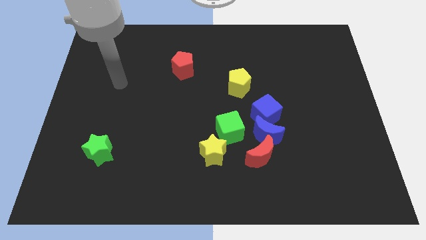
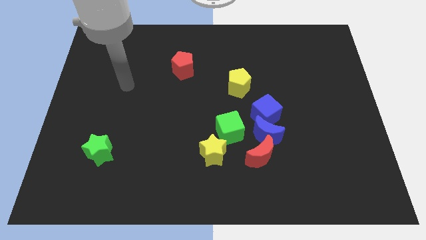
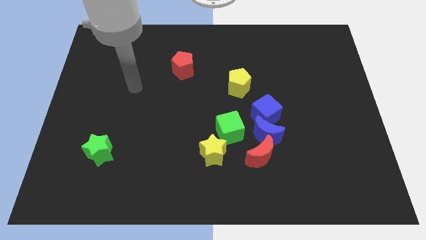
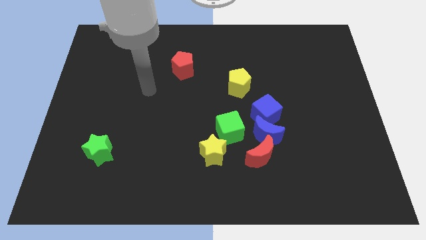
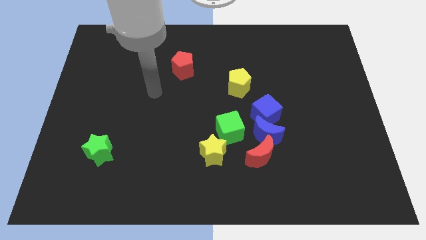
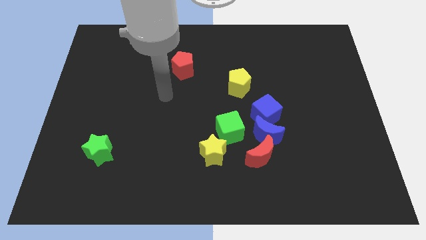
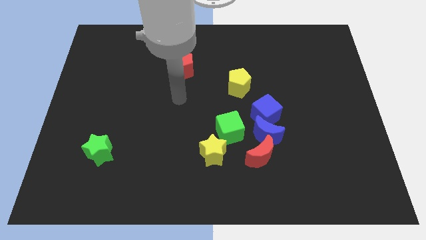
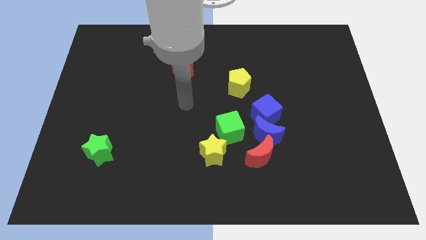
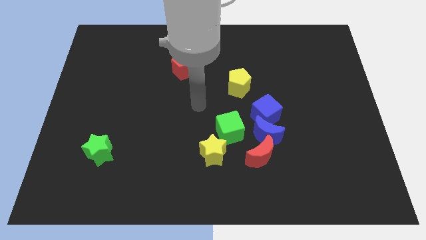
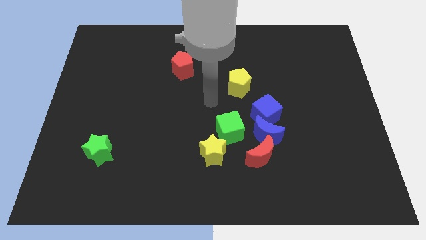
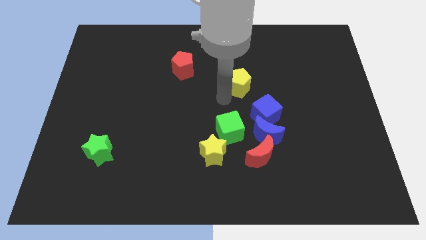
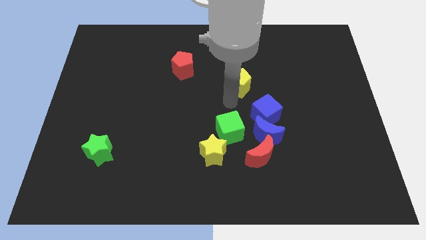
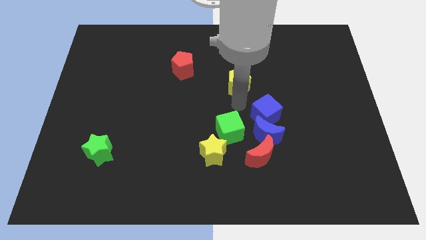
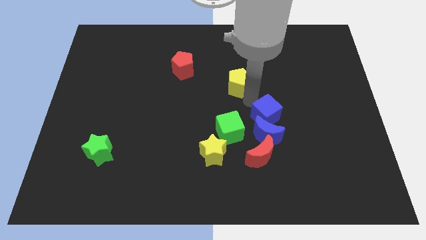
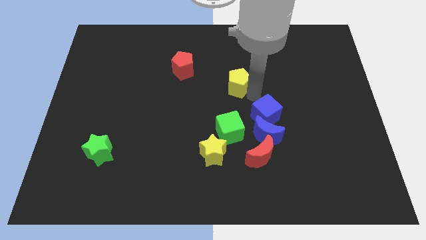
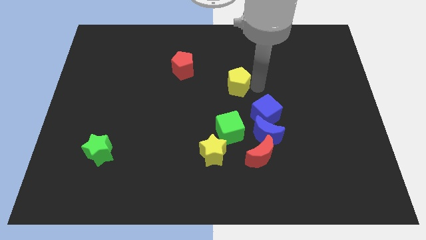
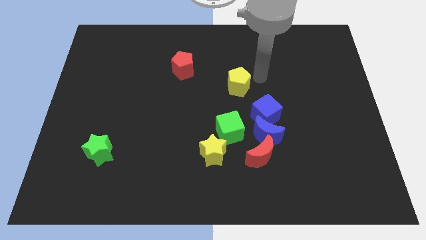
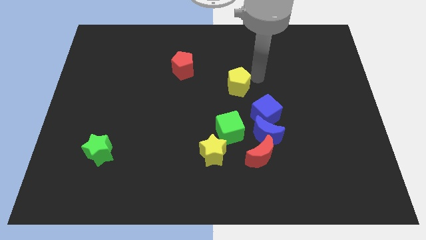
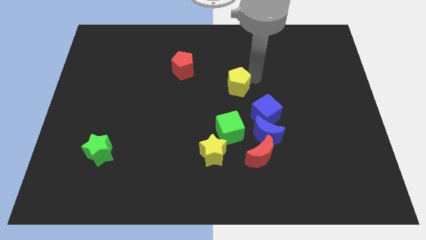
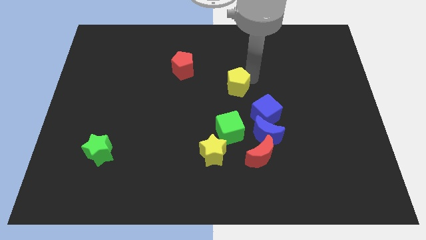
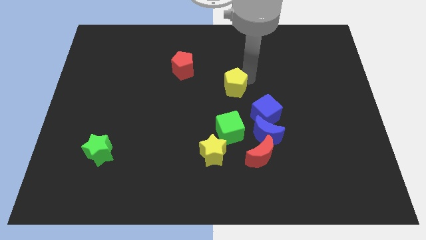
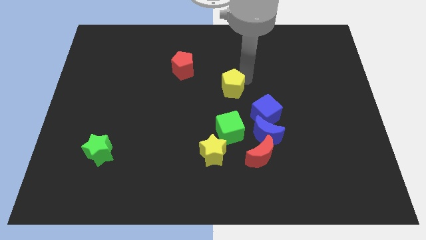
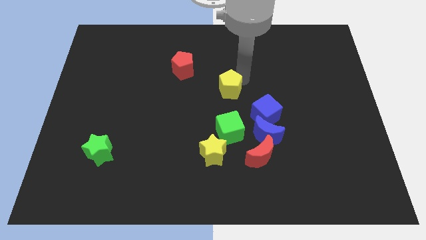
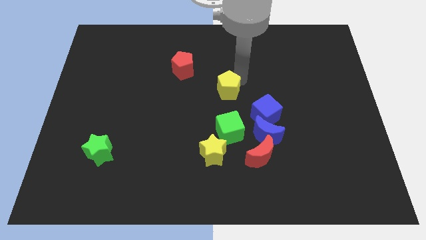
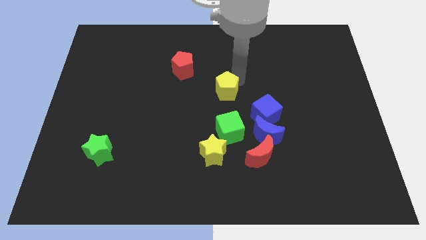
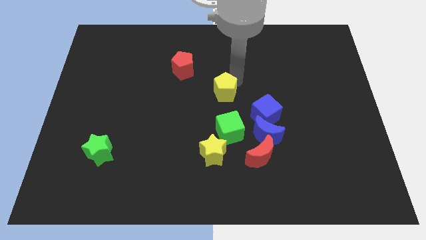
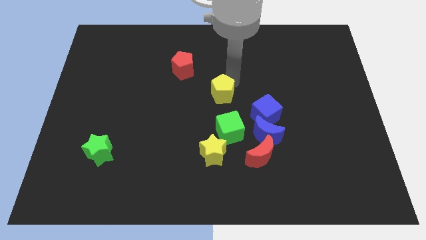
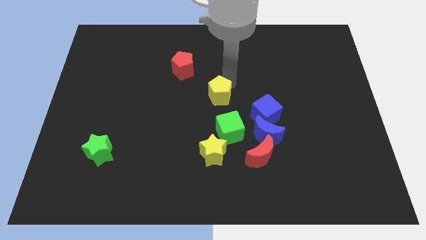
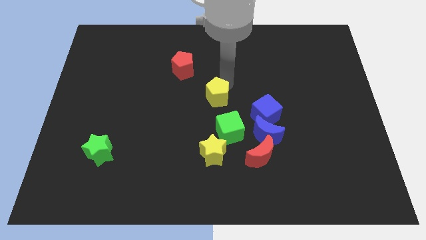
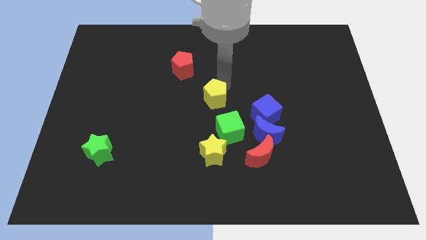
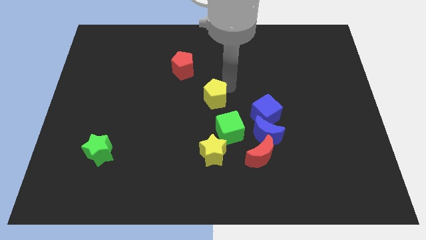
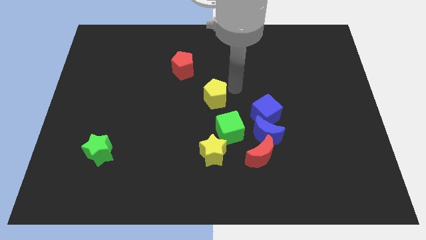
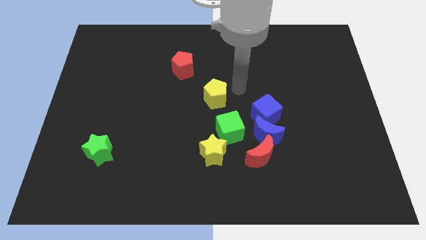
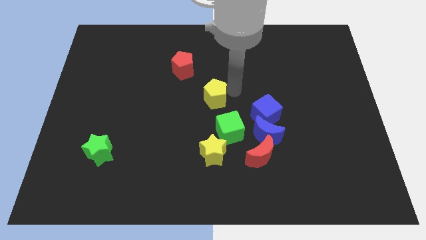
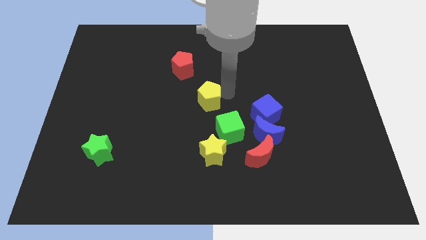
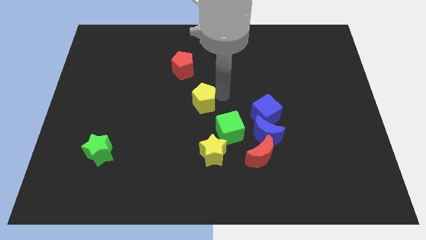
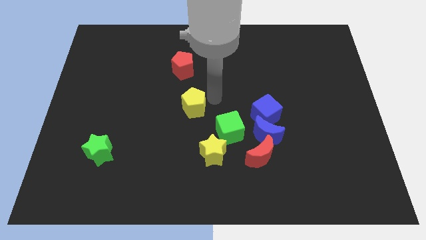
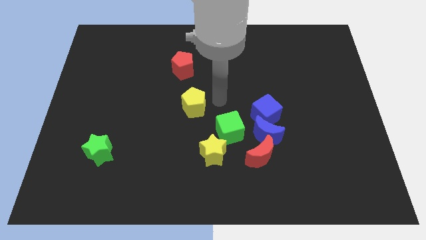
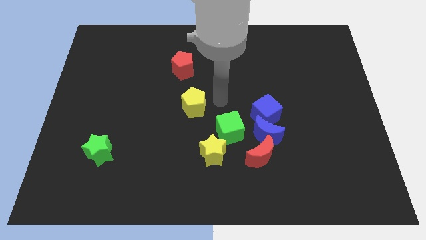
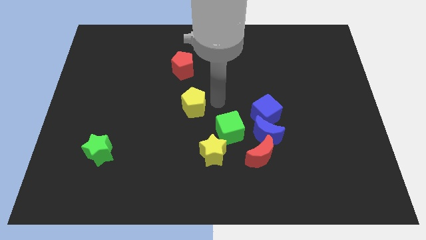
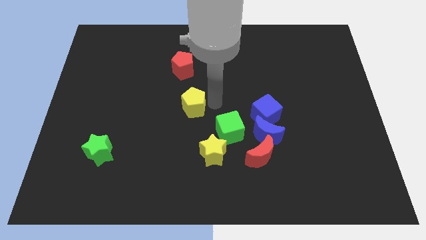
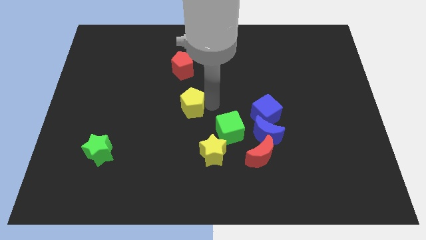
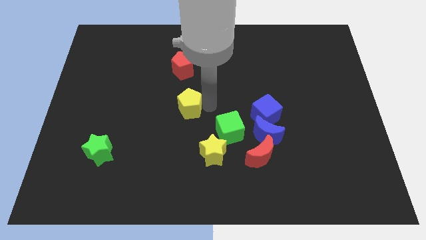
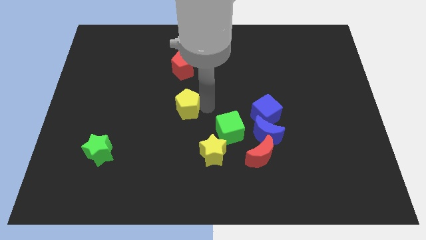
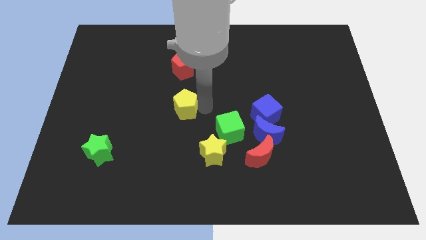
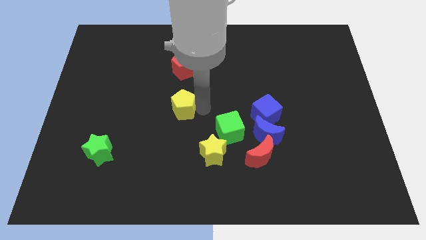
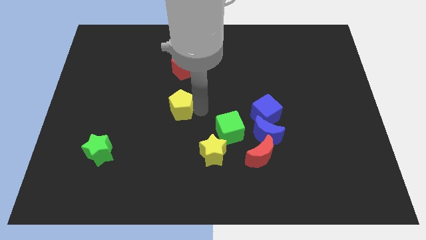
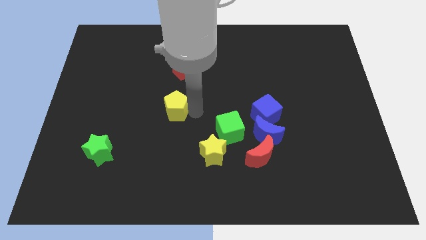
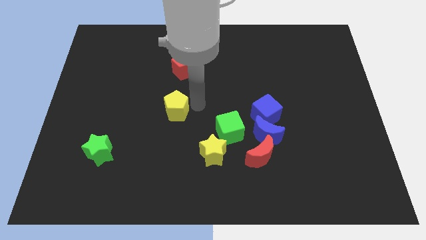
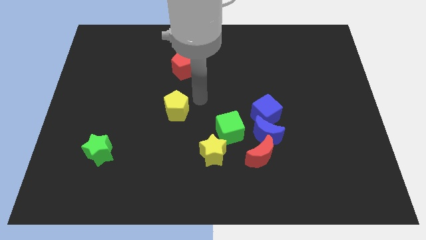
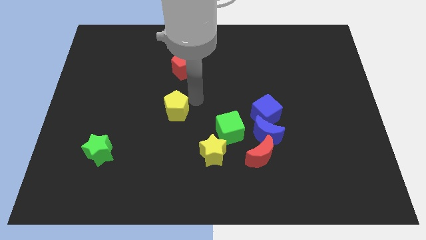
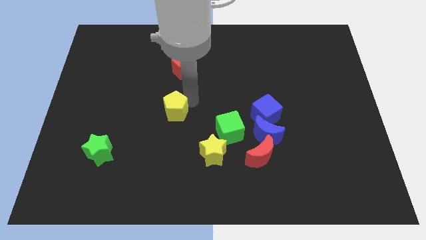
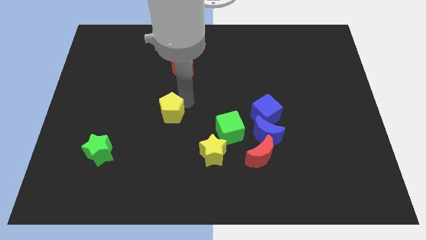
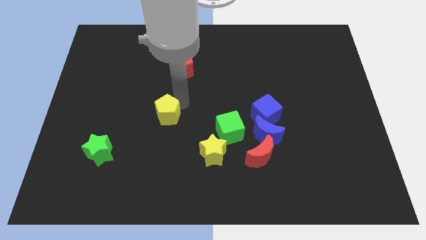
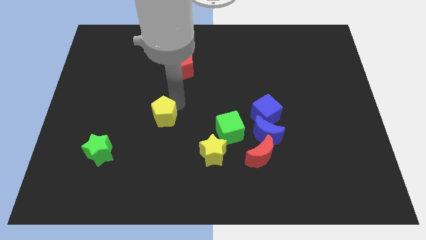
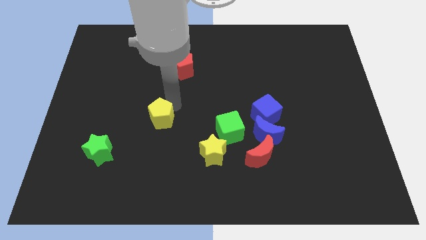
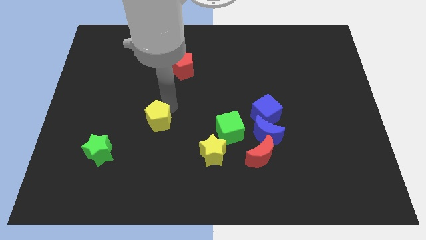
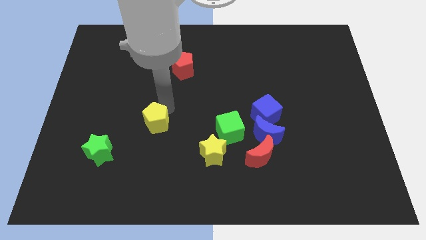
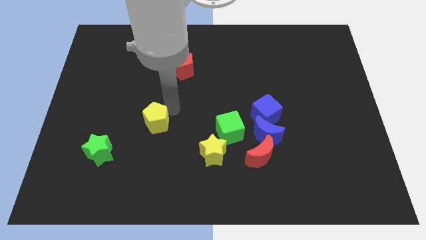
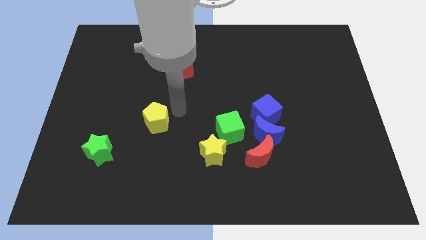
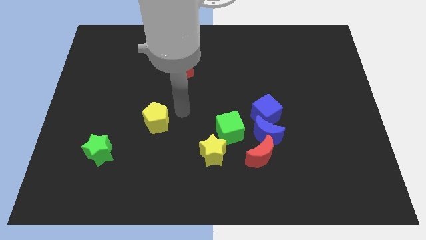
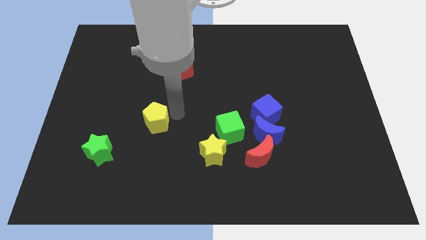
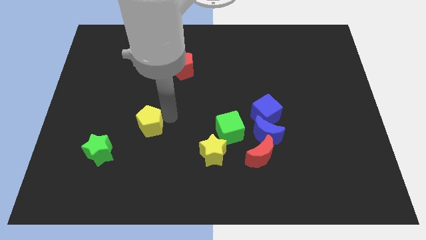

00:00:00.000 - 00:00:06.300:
push the yellow pentagon diagonally up and to the right of the green star

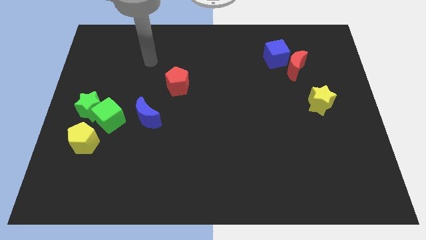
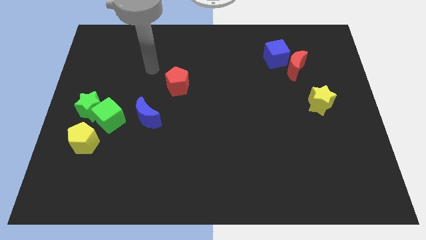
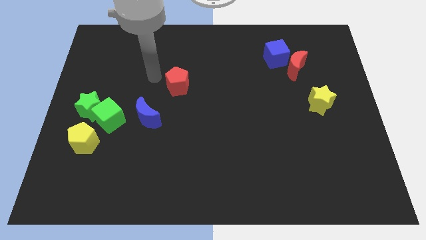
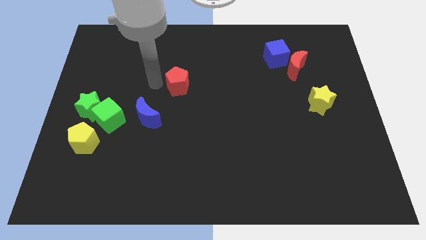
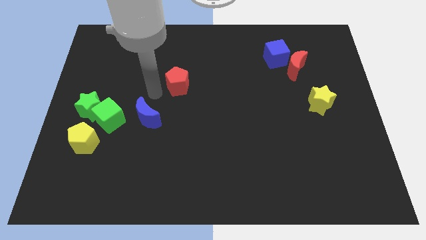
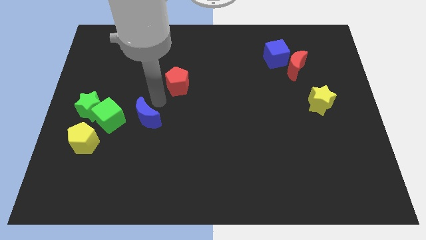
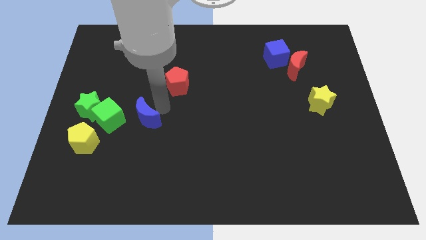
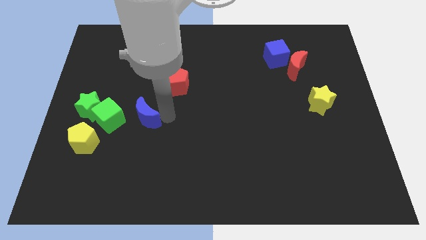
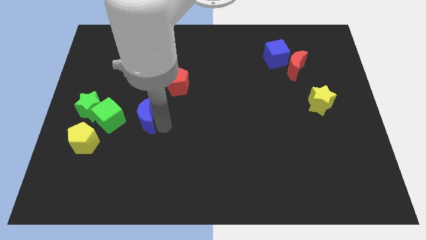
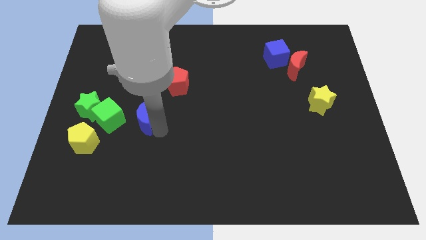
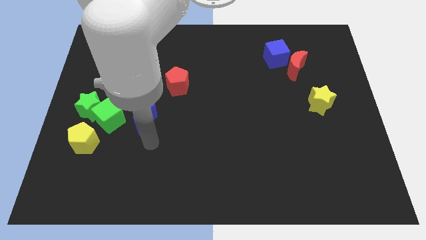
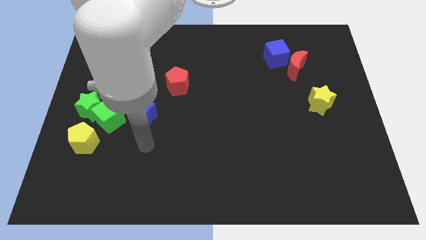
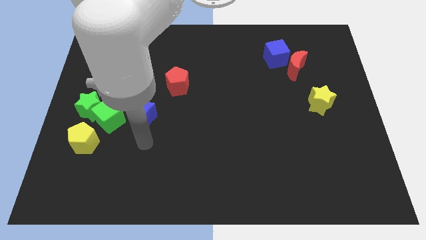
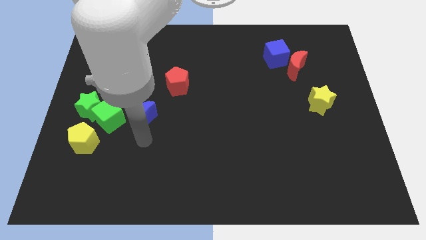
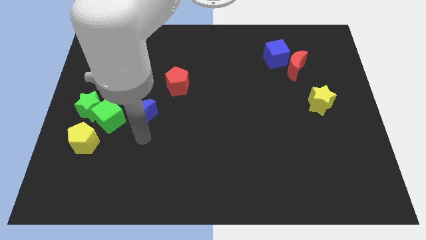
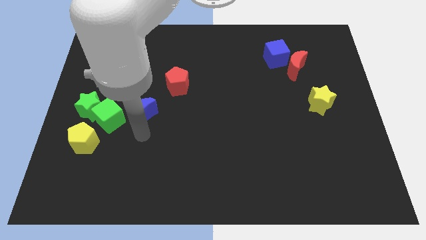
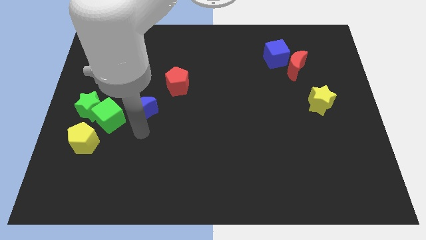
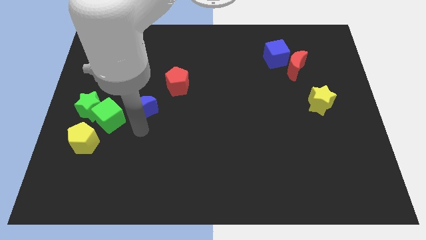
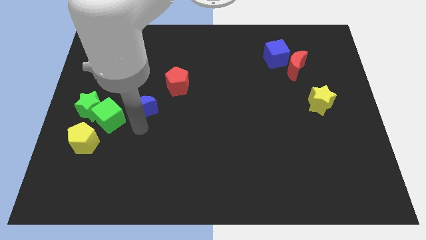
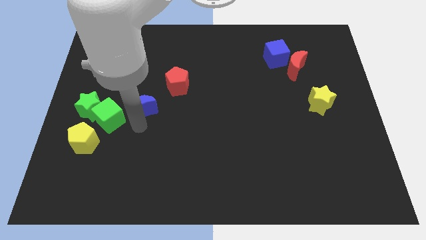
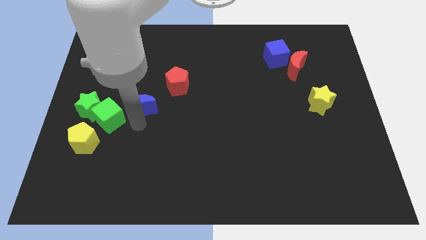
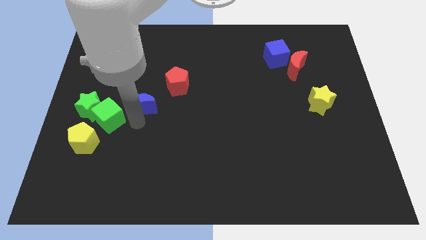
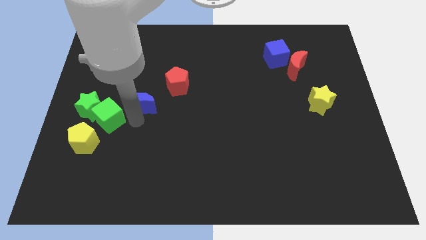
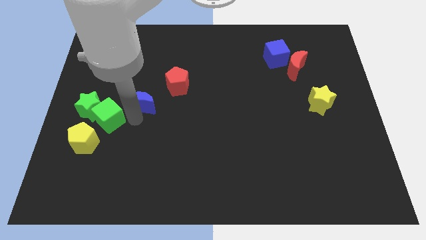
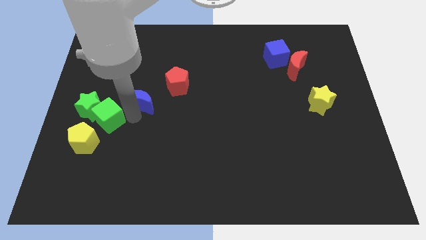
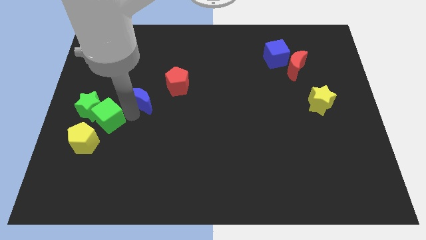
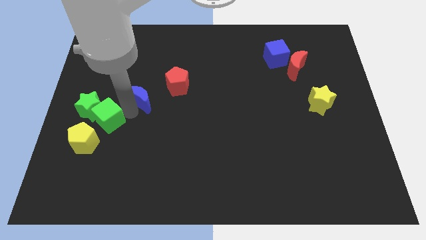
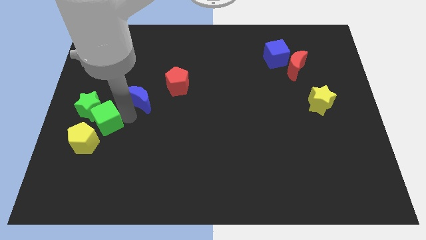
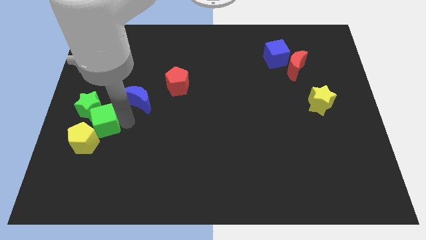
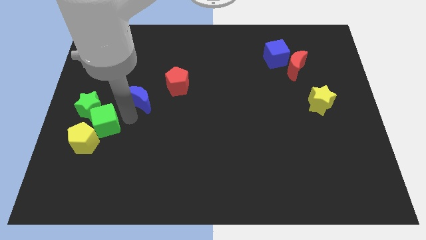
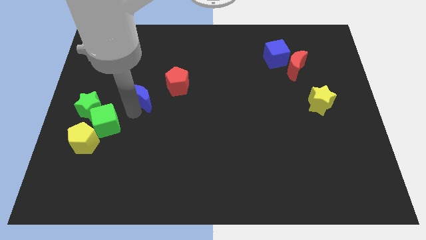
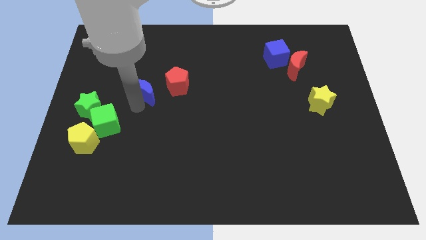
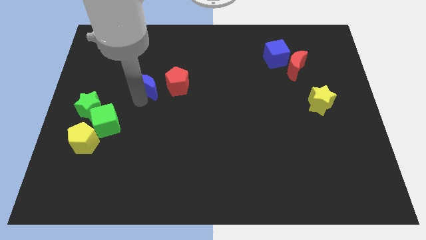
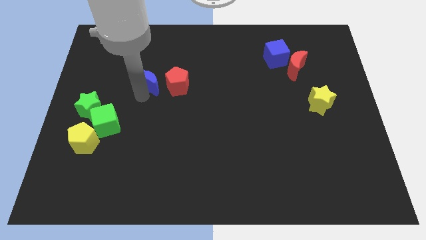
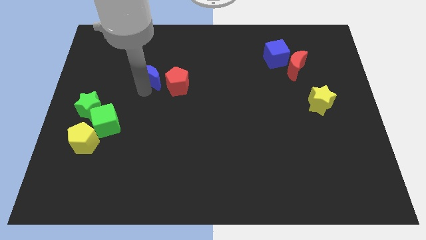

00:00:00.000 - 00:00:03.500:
put the blue moon diagonally up and to the left of the red pentagon
